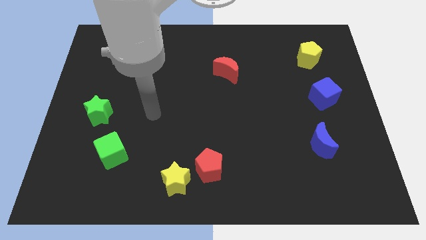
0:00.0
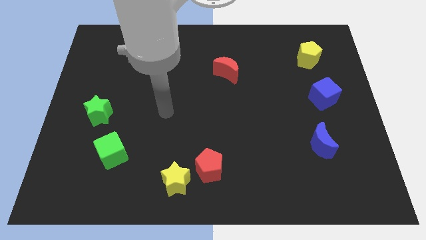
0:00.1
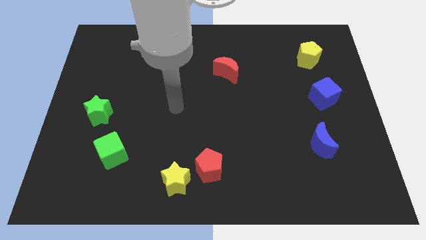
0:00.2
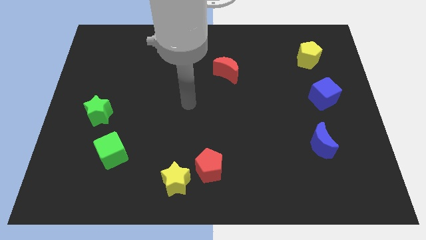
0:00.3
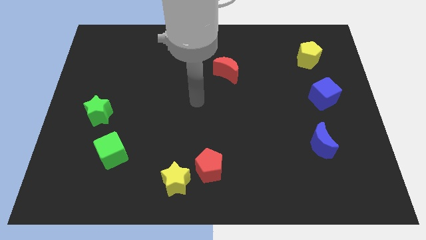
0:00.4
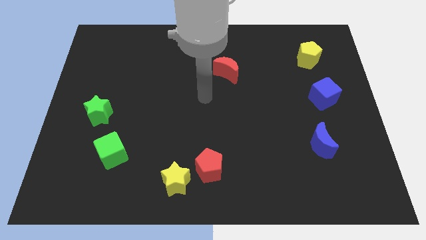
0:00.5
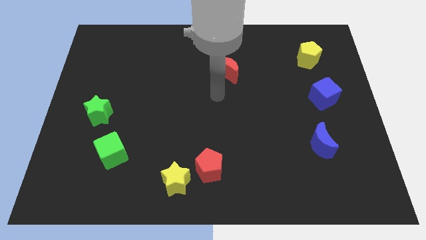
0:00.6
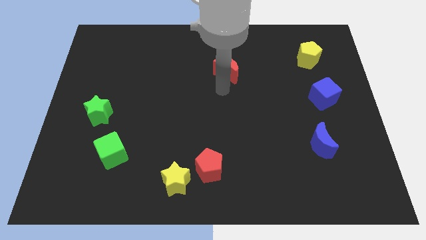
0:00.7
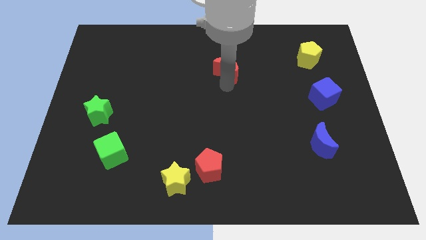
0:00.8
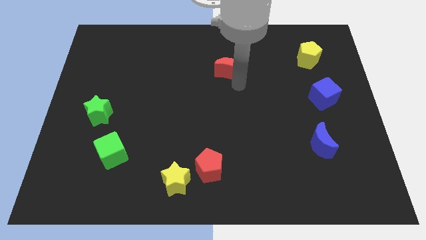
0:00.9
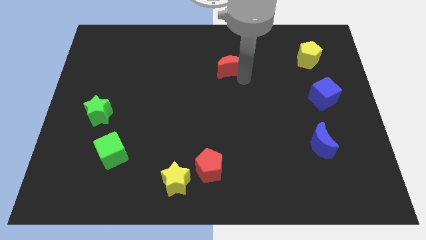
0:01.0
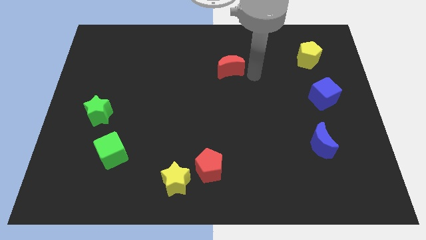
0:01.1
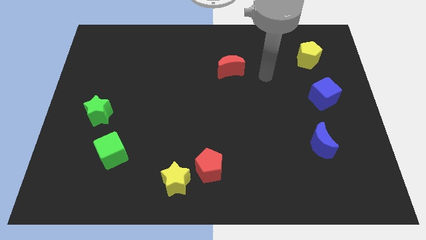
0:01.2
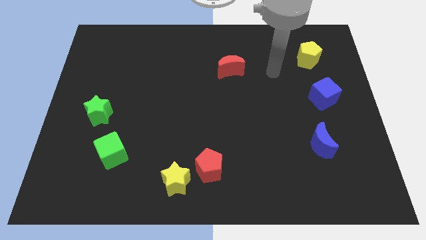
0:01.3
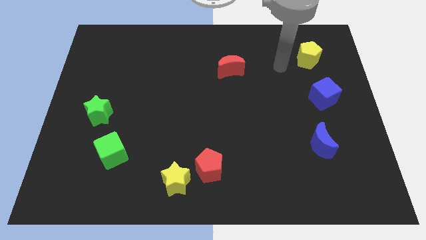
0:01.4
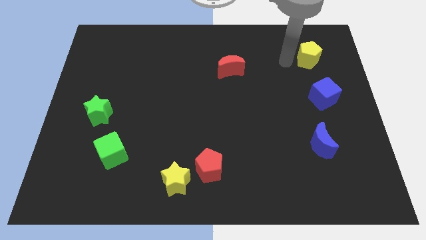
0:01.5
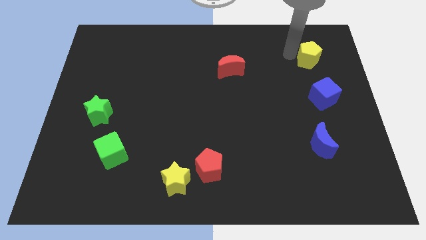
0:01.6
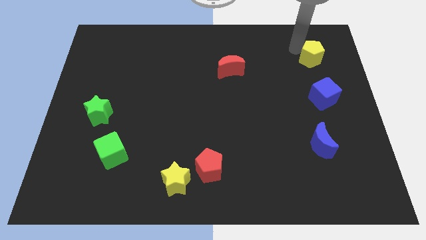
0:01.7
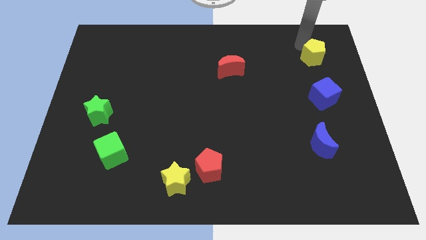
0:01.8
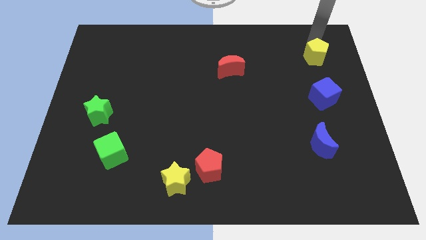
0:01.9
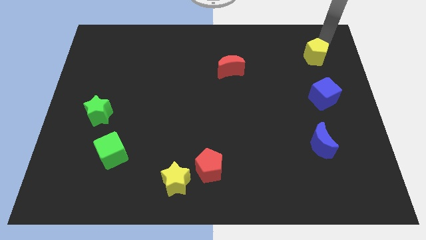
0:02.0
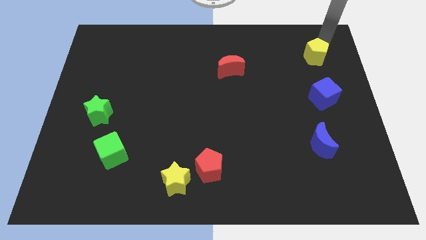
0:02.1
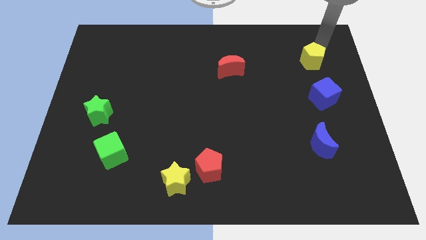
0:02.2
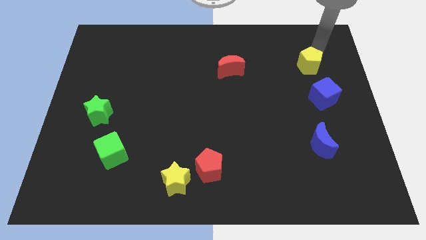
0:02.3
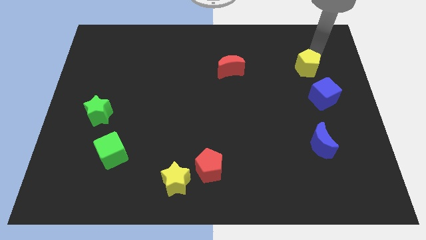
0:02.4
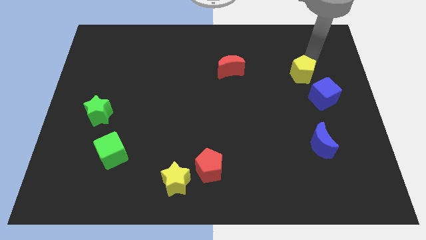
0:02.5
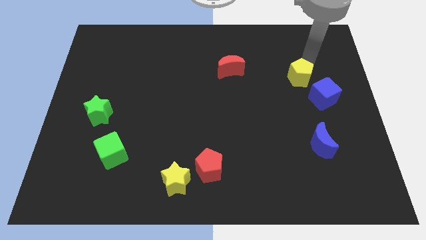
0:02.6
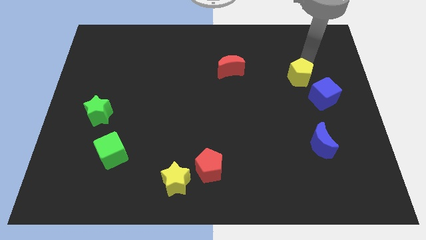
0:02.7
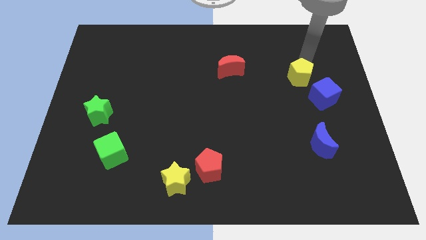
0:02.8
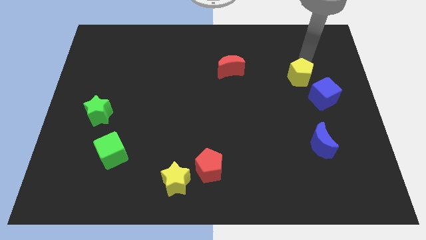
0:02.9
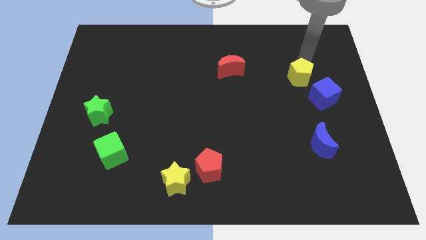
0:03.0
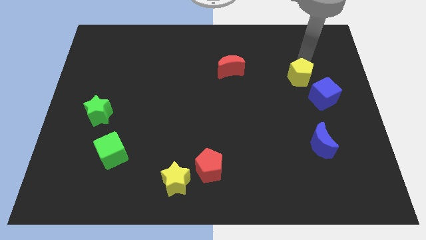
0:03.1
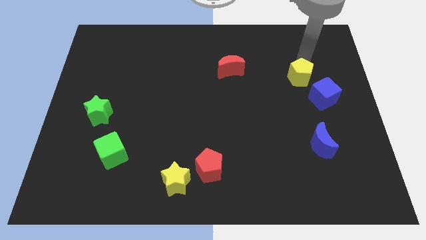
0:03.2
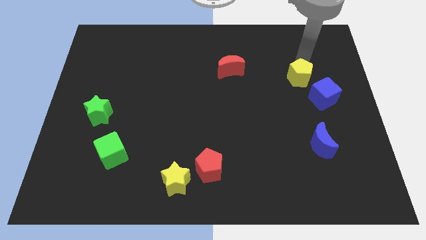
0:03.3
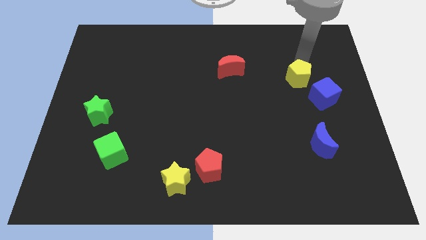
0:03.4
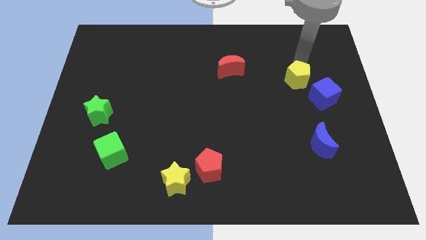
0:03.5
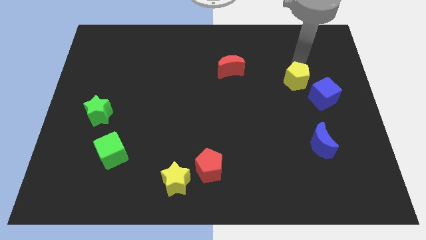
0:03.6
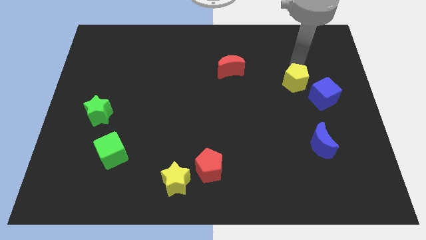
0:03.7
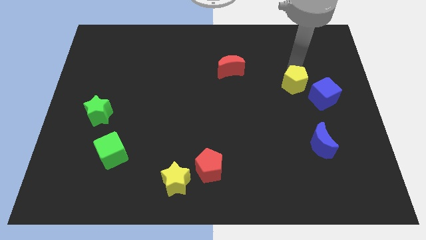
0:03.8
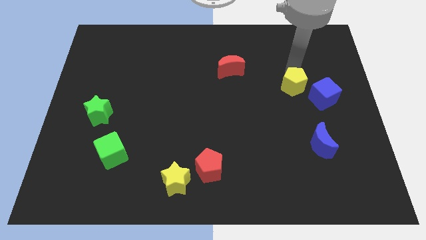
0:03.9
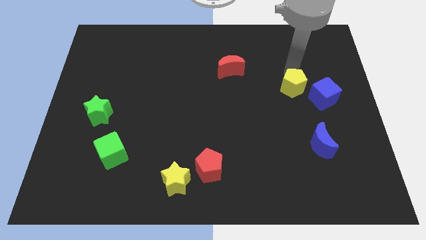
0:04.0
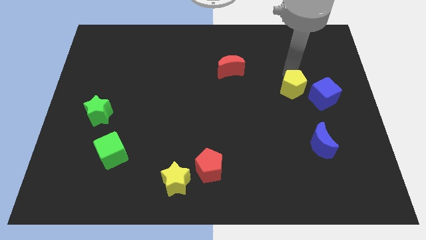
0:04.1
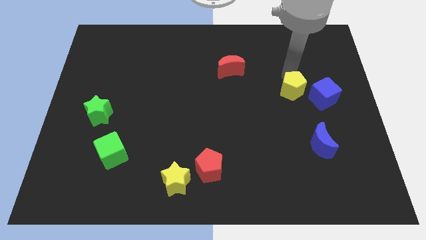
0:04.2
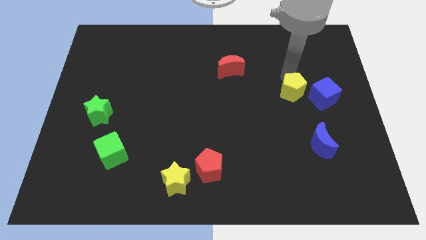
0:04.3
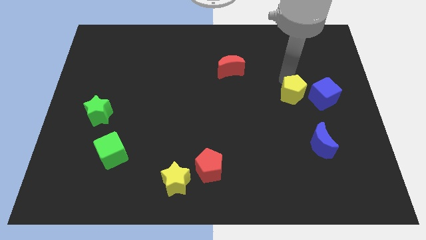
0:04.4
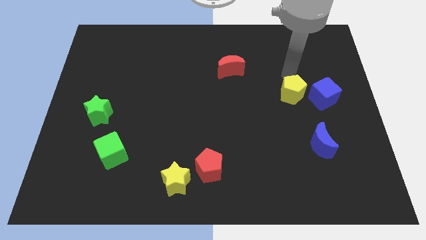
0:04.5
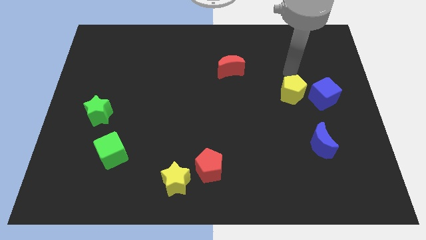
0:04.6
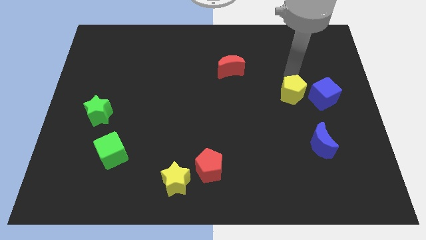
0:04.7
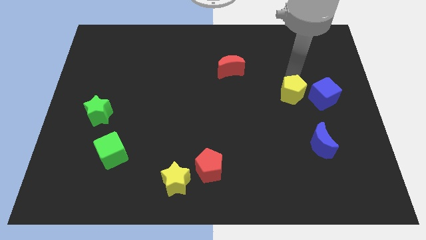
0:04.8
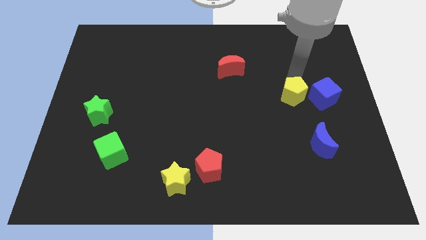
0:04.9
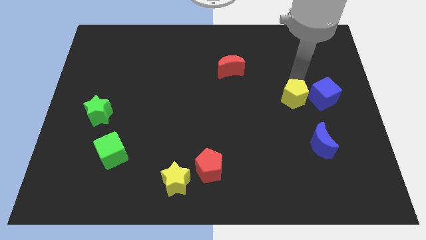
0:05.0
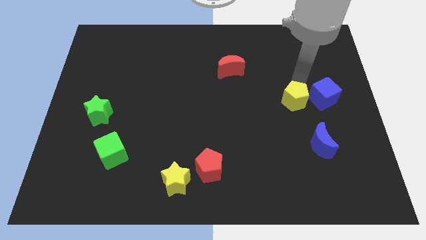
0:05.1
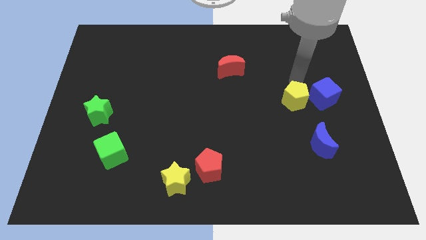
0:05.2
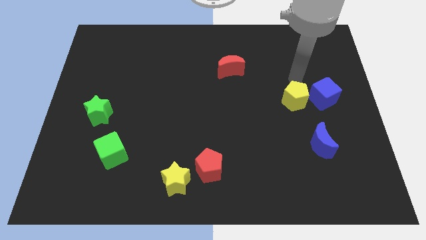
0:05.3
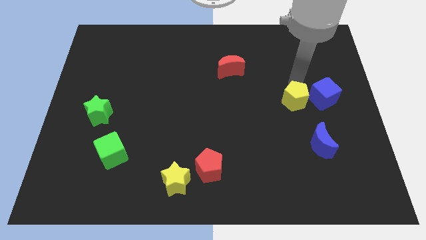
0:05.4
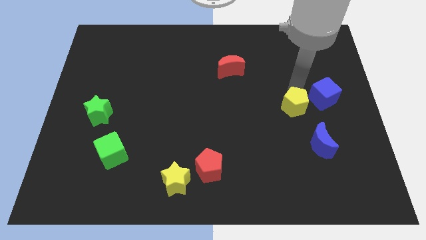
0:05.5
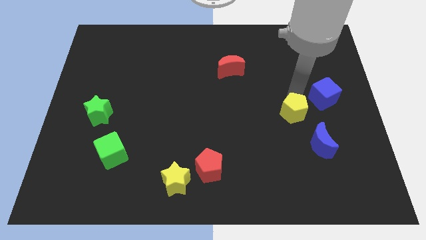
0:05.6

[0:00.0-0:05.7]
push the yellow pentagon to the top left of the blue moon

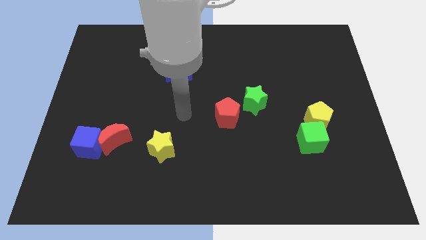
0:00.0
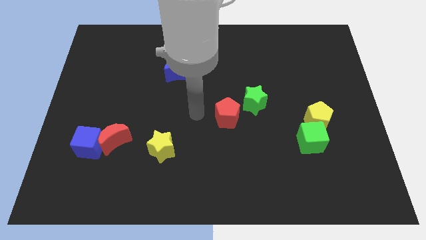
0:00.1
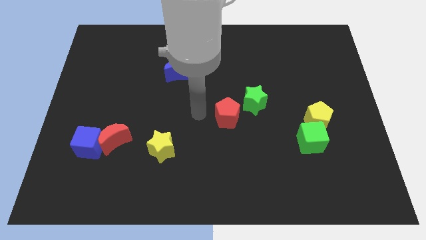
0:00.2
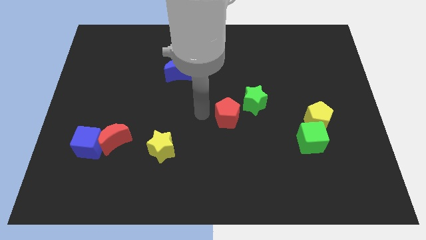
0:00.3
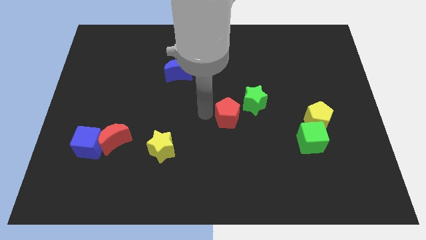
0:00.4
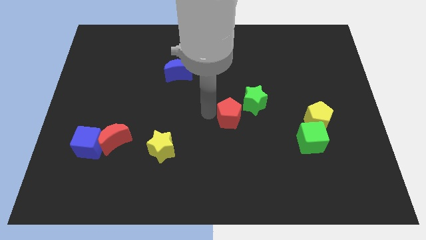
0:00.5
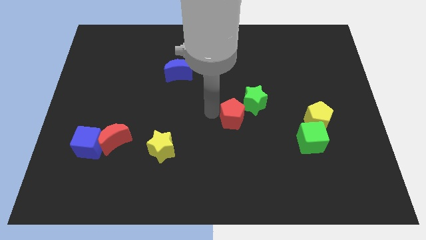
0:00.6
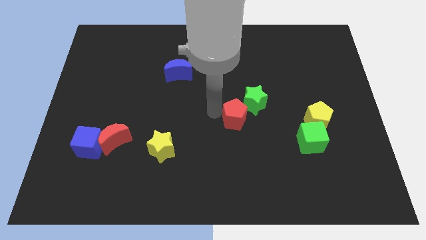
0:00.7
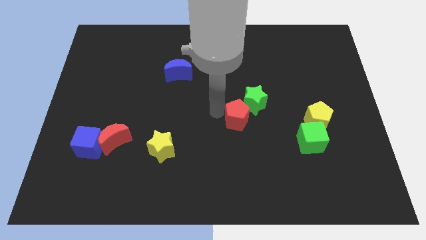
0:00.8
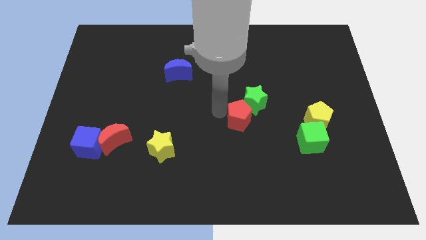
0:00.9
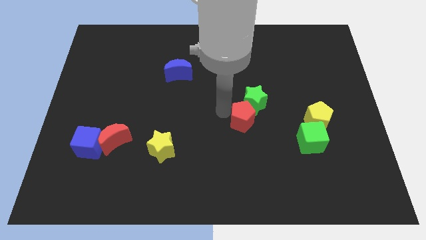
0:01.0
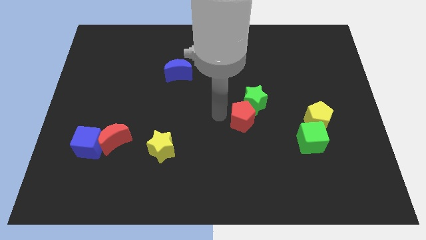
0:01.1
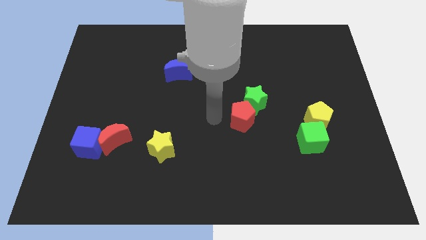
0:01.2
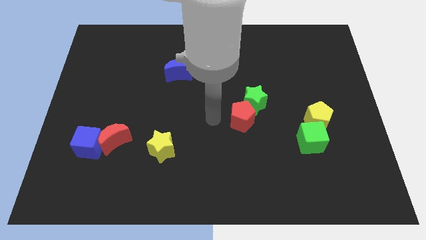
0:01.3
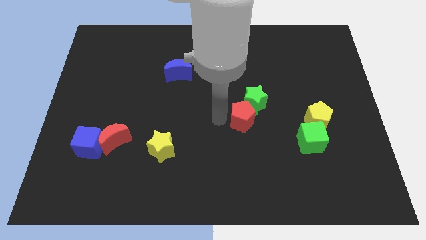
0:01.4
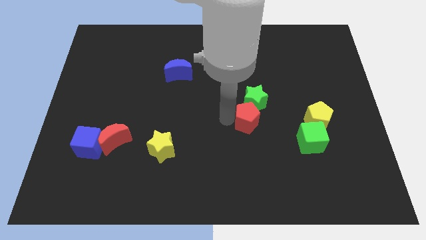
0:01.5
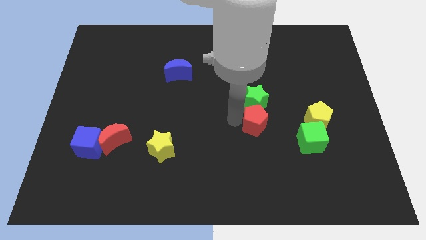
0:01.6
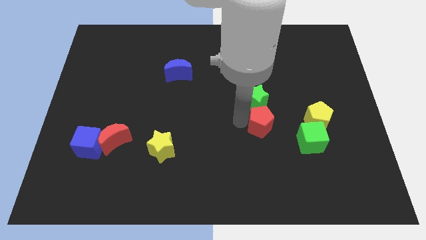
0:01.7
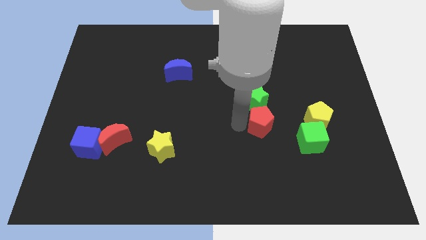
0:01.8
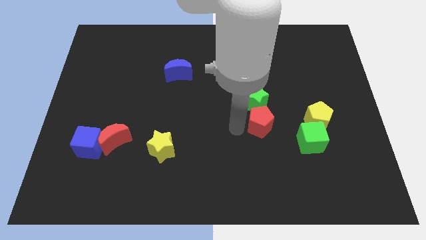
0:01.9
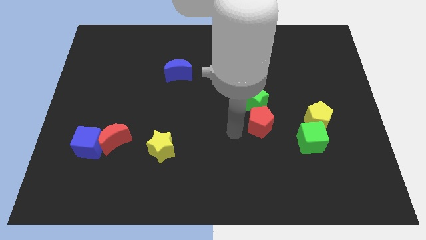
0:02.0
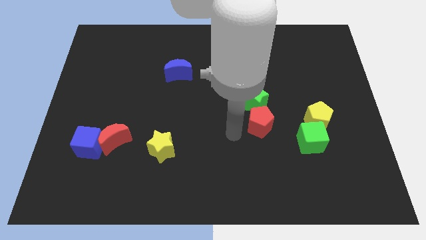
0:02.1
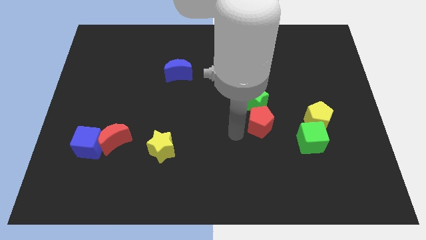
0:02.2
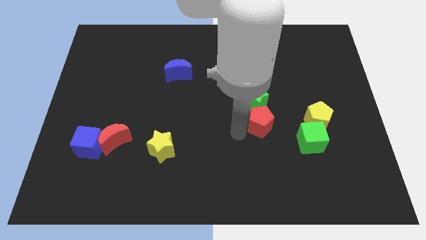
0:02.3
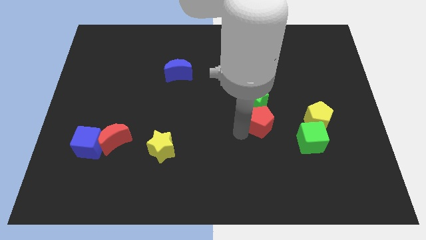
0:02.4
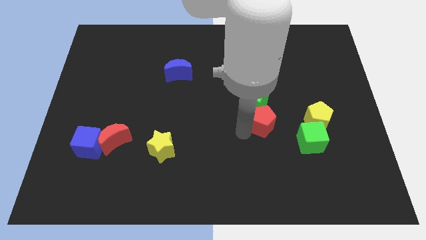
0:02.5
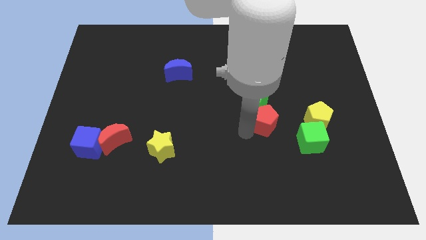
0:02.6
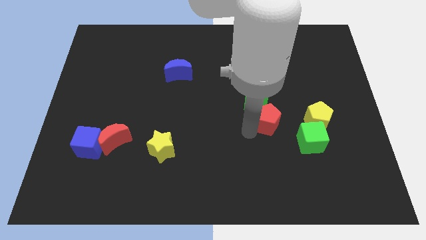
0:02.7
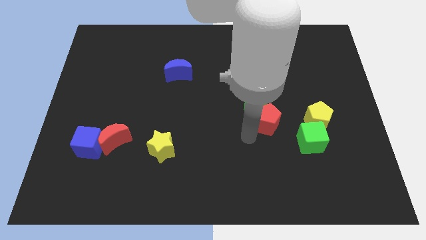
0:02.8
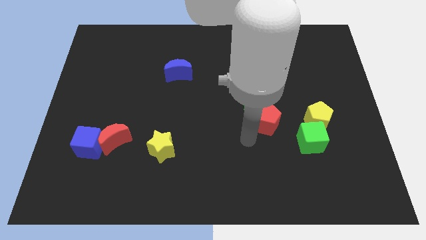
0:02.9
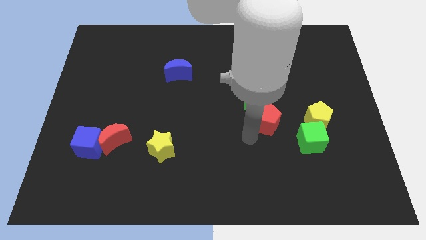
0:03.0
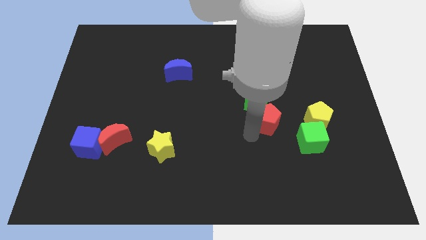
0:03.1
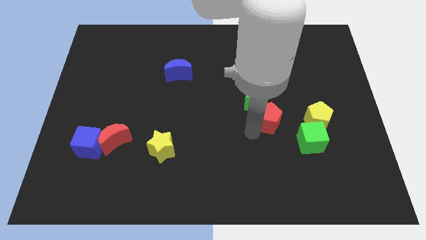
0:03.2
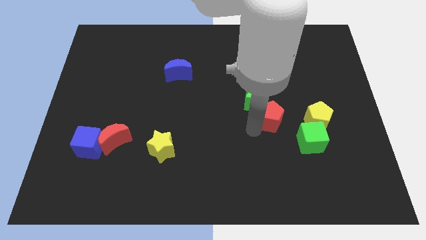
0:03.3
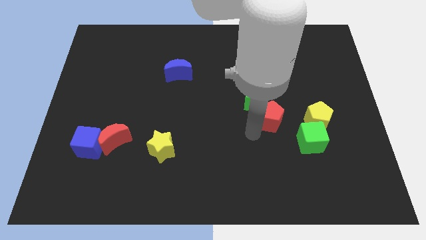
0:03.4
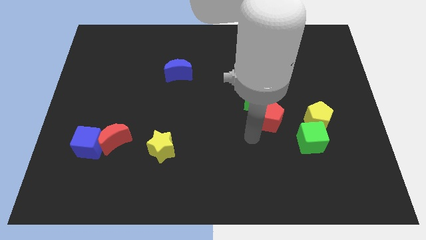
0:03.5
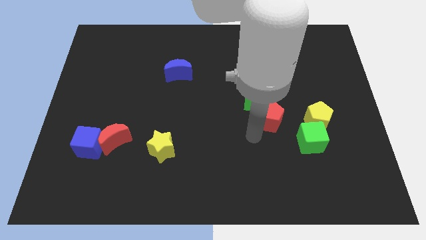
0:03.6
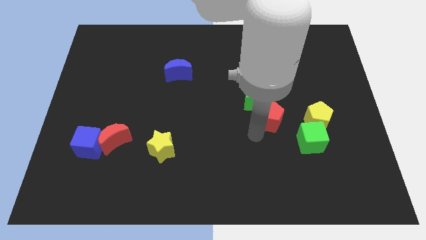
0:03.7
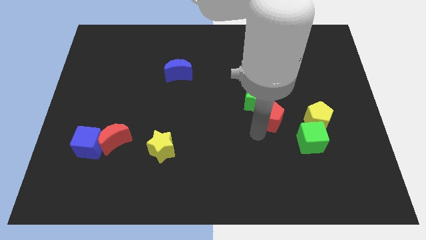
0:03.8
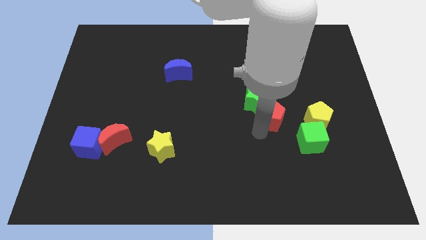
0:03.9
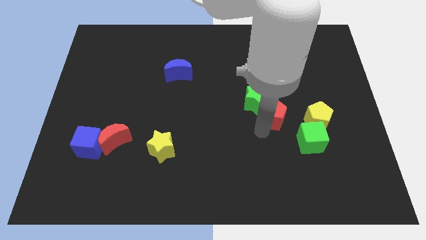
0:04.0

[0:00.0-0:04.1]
push the red pentagon just right of the green star
